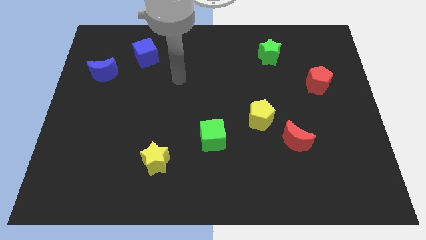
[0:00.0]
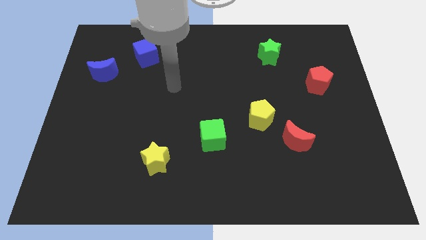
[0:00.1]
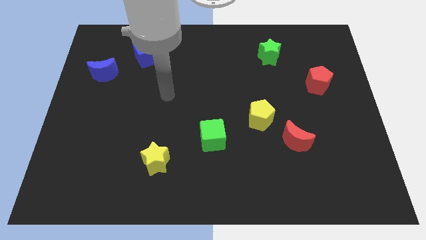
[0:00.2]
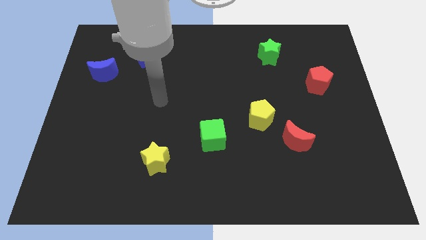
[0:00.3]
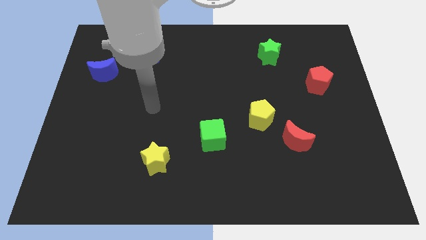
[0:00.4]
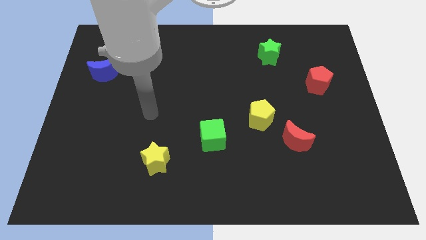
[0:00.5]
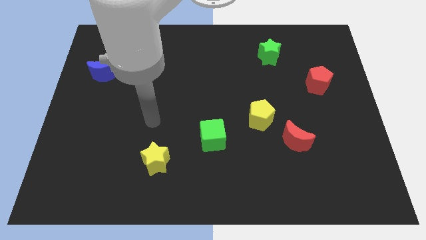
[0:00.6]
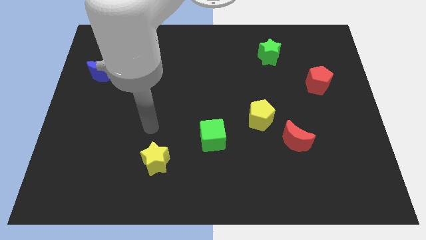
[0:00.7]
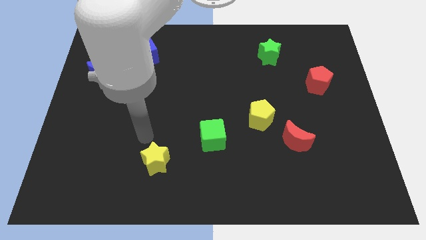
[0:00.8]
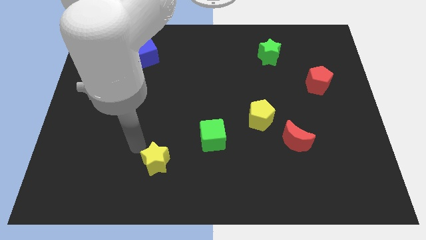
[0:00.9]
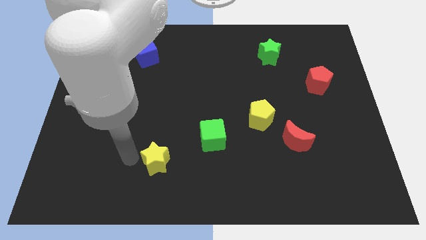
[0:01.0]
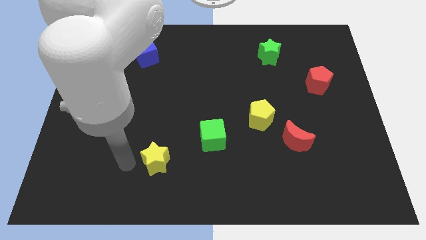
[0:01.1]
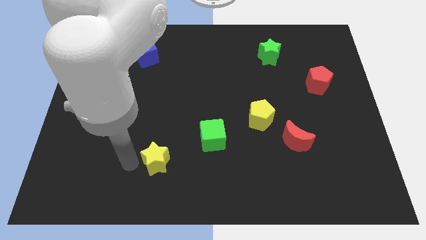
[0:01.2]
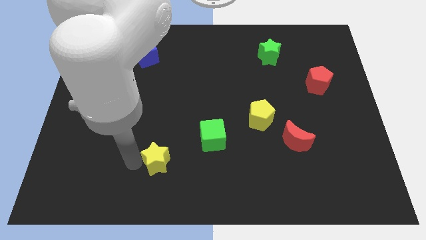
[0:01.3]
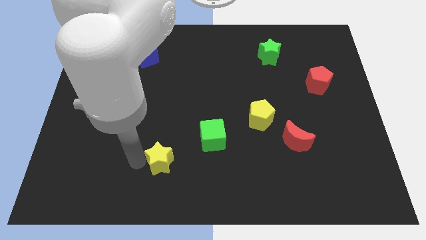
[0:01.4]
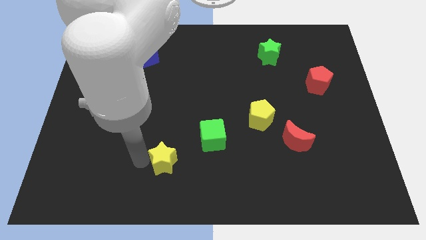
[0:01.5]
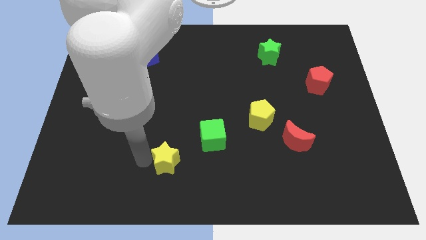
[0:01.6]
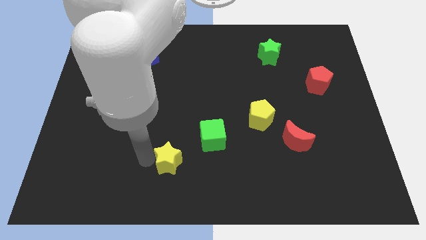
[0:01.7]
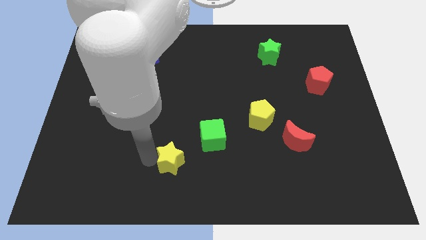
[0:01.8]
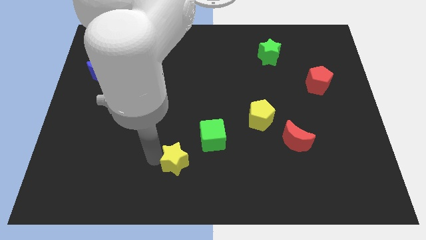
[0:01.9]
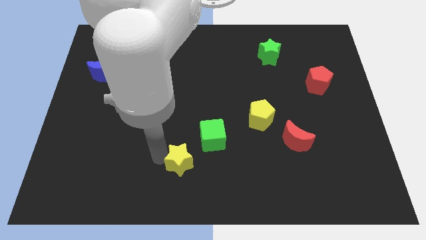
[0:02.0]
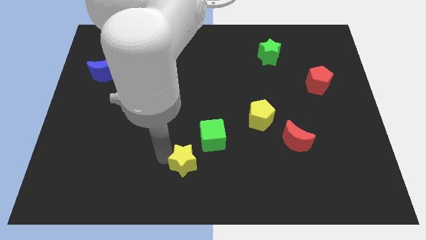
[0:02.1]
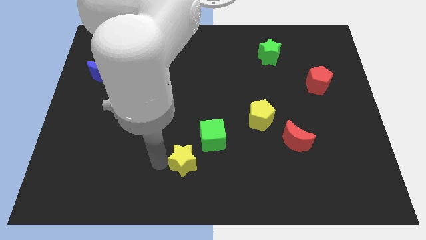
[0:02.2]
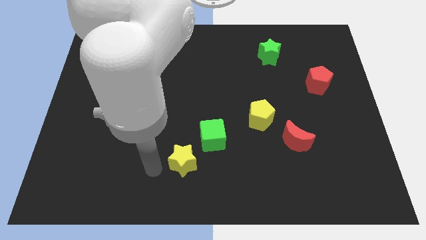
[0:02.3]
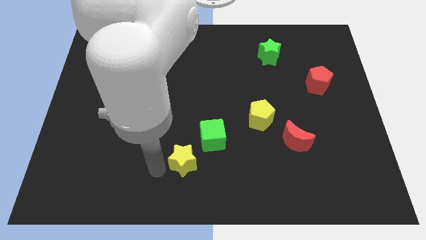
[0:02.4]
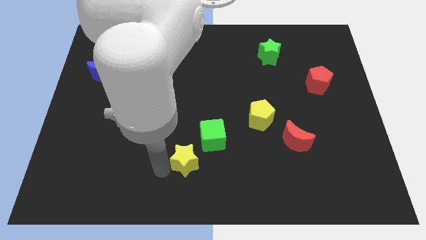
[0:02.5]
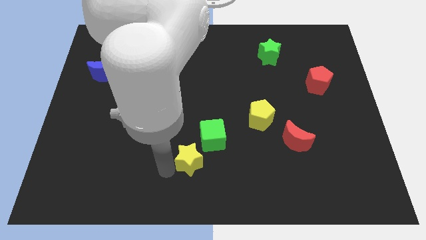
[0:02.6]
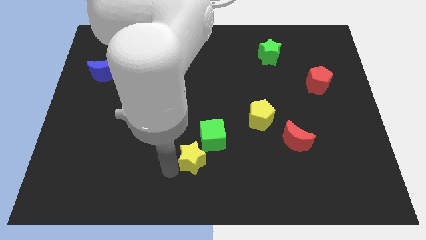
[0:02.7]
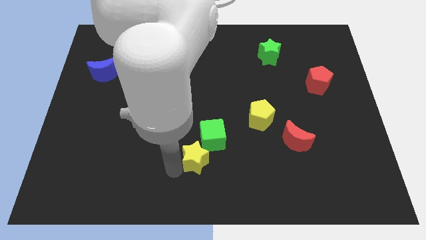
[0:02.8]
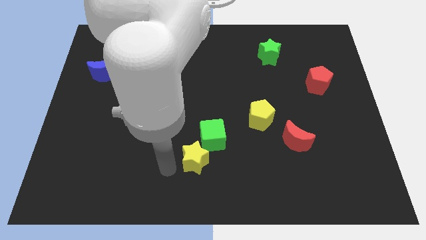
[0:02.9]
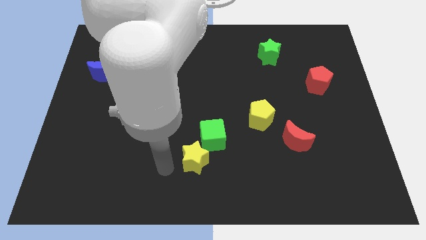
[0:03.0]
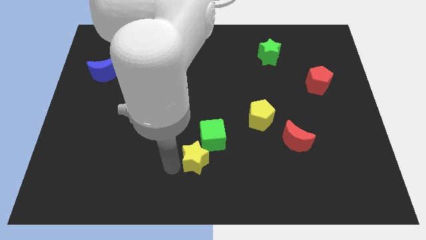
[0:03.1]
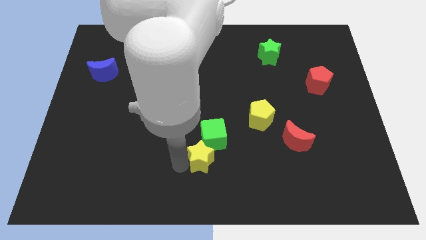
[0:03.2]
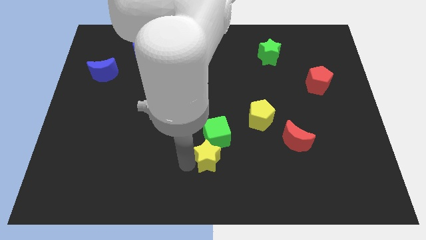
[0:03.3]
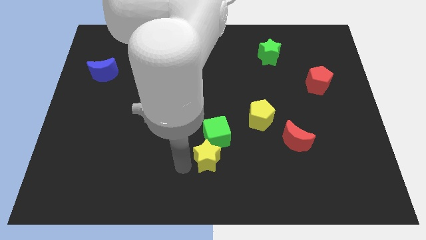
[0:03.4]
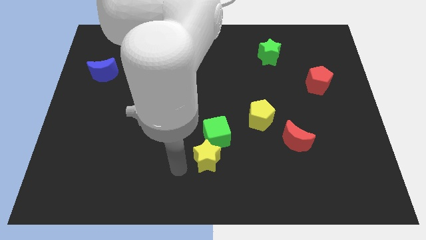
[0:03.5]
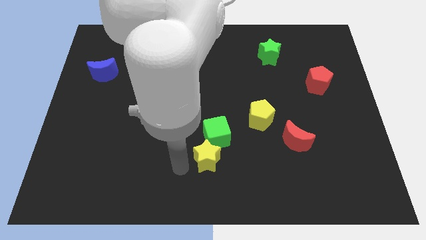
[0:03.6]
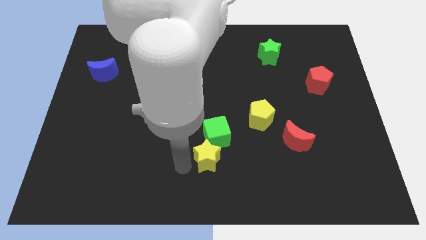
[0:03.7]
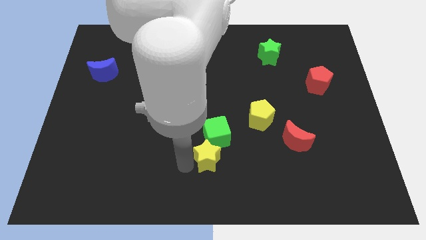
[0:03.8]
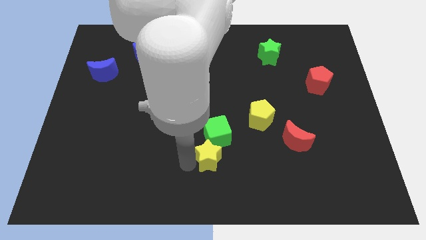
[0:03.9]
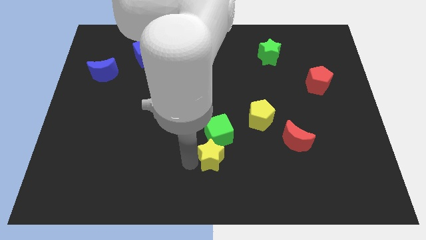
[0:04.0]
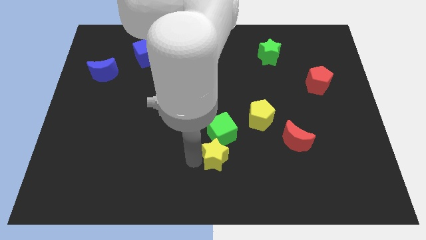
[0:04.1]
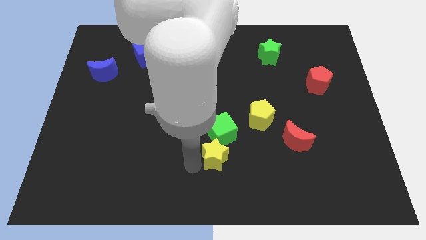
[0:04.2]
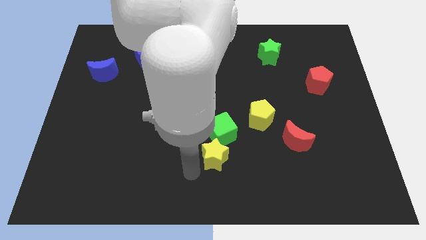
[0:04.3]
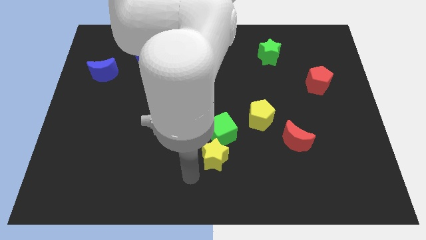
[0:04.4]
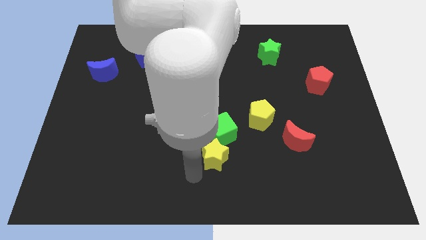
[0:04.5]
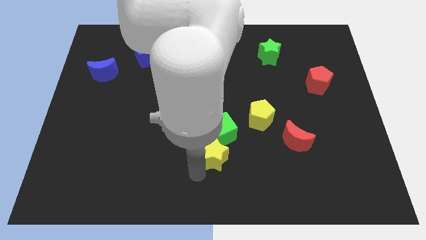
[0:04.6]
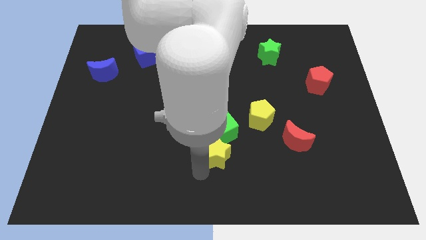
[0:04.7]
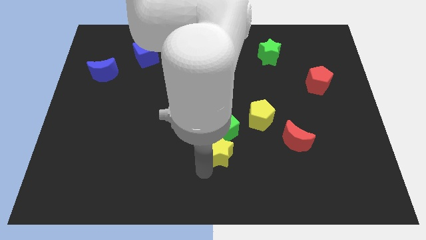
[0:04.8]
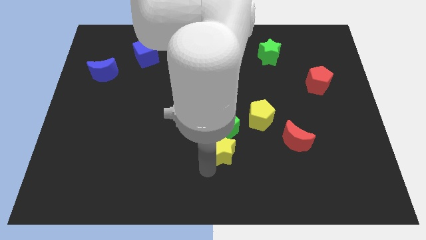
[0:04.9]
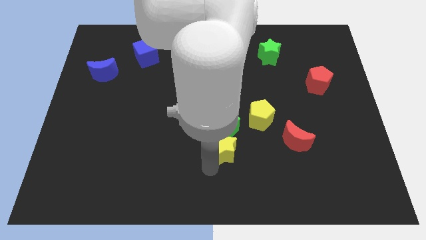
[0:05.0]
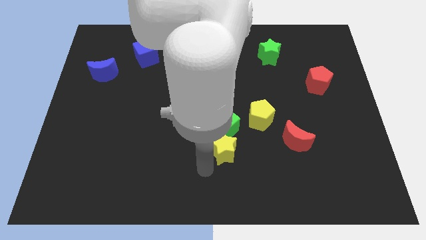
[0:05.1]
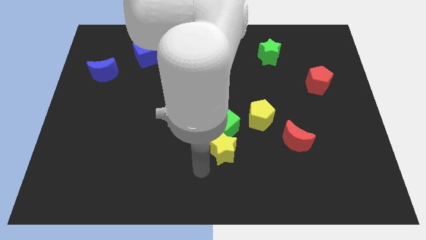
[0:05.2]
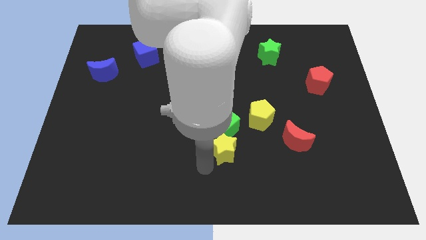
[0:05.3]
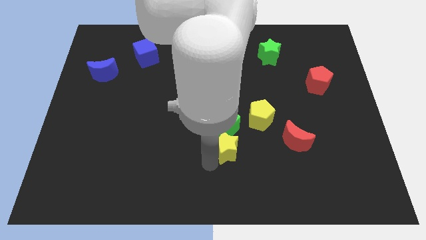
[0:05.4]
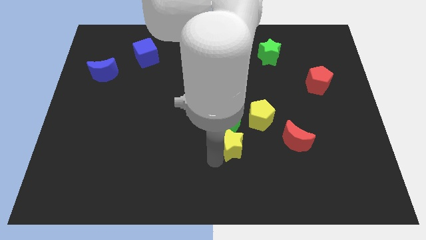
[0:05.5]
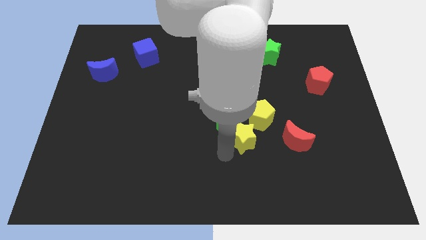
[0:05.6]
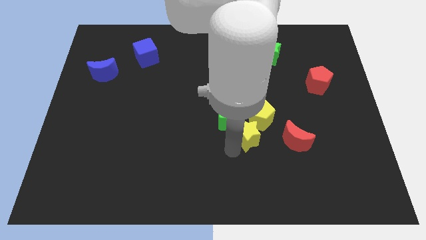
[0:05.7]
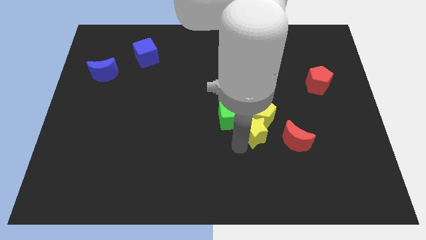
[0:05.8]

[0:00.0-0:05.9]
push the yellow star towards the yellow pentagon

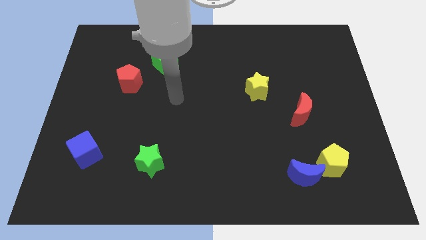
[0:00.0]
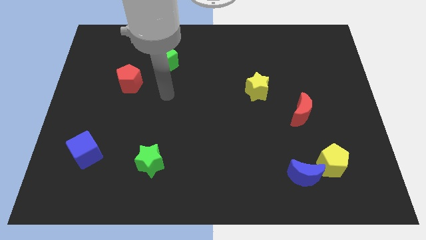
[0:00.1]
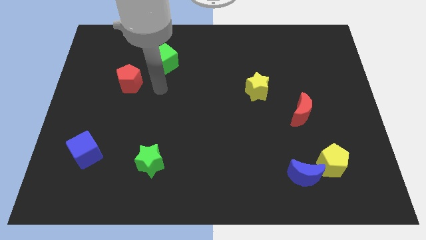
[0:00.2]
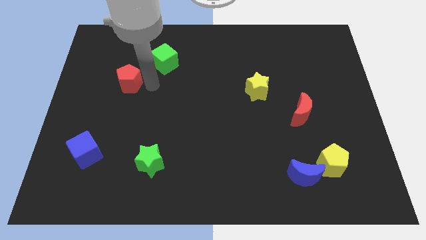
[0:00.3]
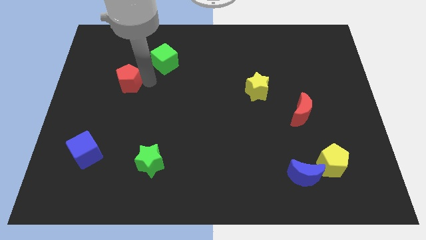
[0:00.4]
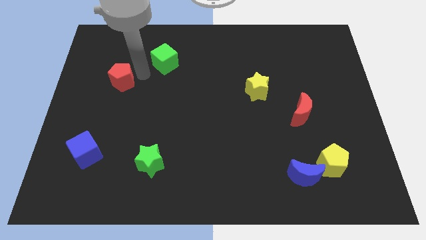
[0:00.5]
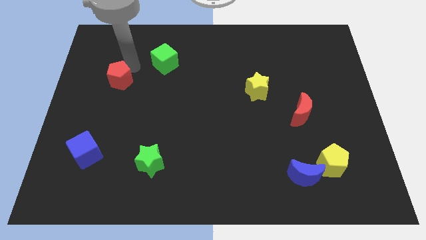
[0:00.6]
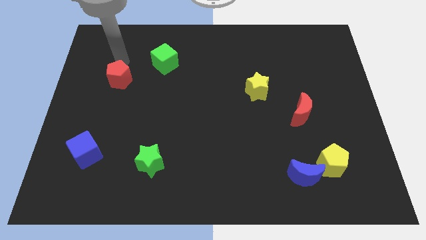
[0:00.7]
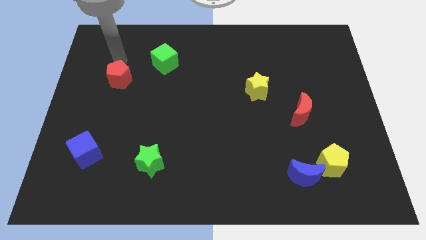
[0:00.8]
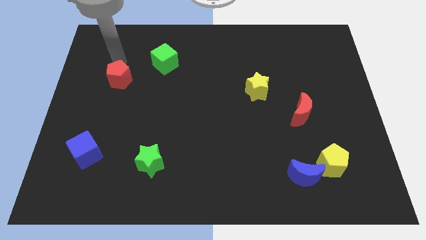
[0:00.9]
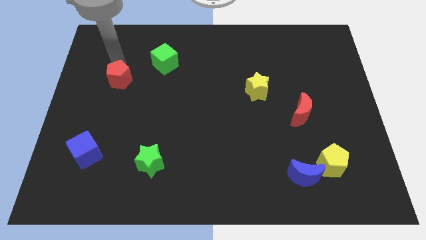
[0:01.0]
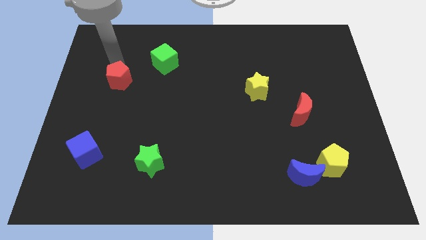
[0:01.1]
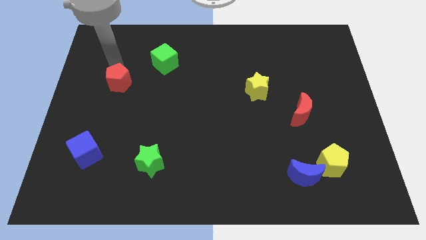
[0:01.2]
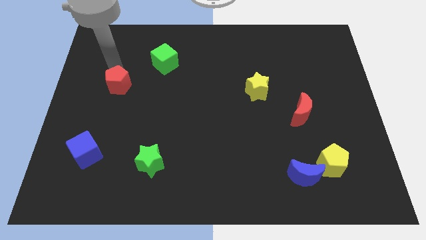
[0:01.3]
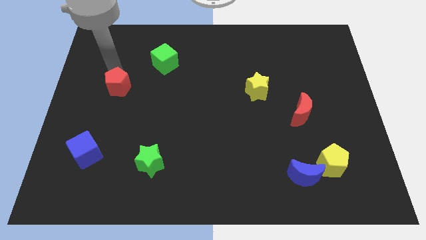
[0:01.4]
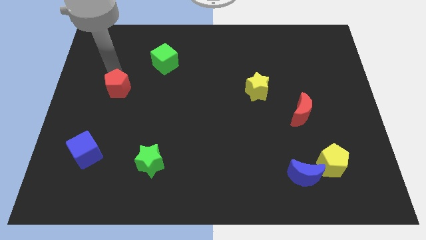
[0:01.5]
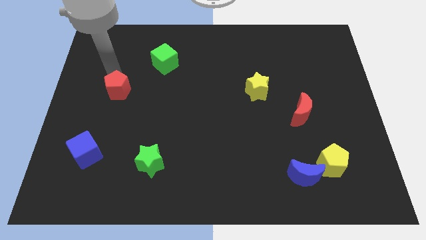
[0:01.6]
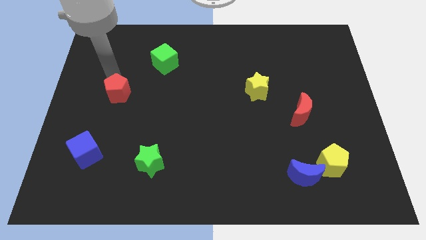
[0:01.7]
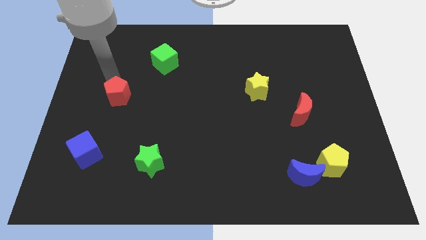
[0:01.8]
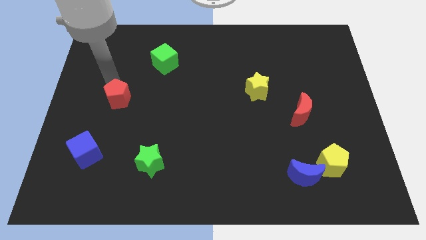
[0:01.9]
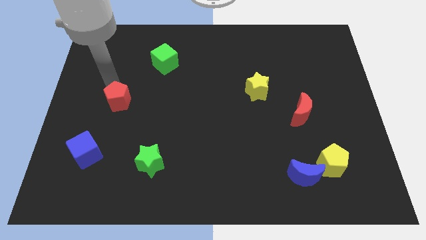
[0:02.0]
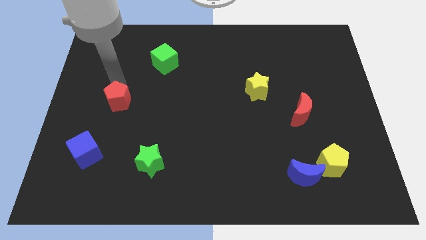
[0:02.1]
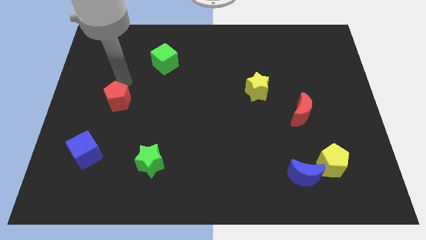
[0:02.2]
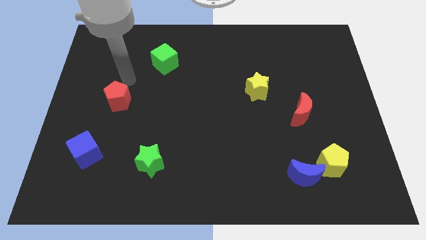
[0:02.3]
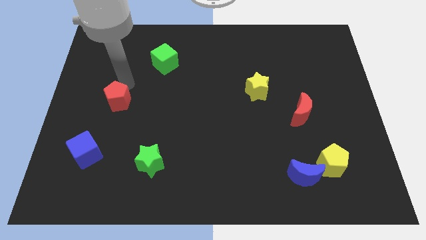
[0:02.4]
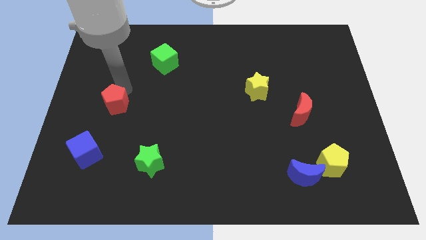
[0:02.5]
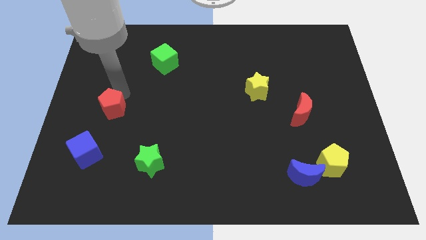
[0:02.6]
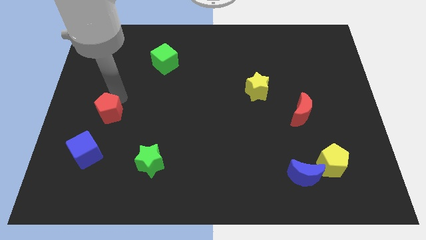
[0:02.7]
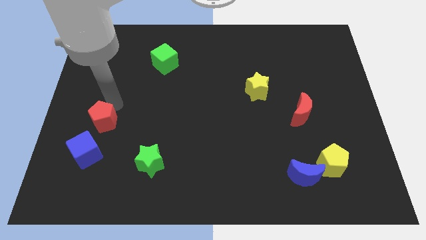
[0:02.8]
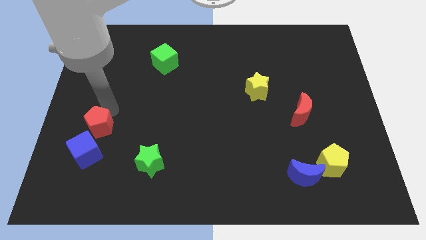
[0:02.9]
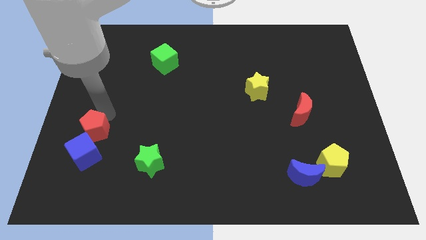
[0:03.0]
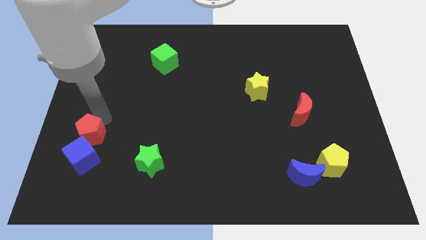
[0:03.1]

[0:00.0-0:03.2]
push the red pentagon close to the blue cube
